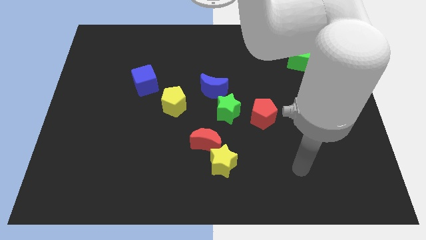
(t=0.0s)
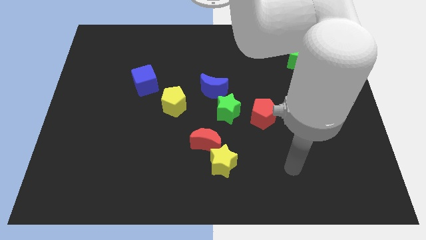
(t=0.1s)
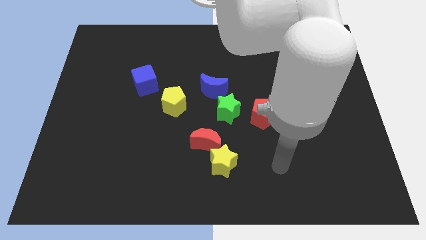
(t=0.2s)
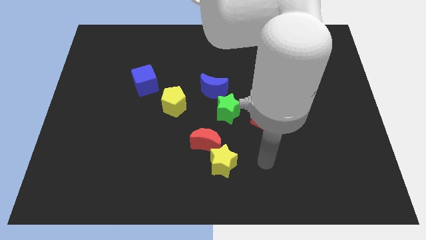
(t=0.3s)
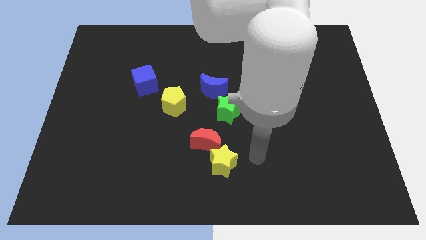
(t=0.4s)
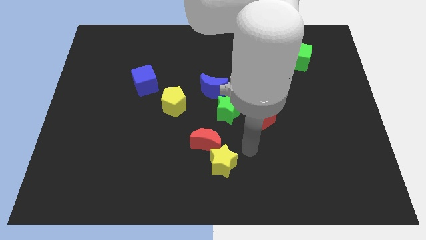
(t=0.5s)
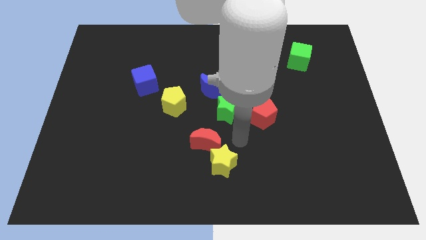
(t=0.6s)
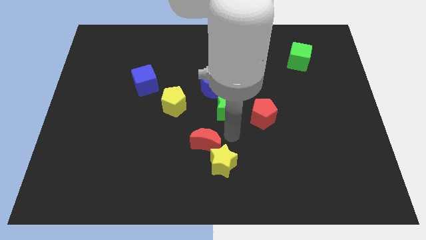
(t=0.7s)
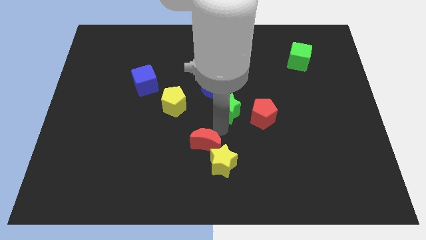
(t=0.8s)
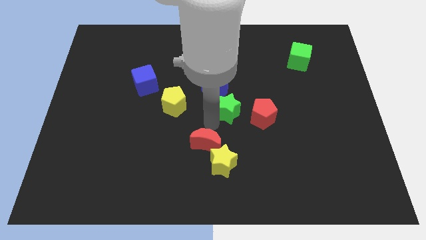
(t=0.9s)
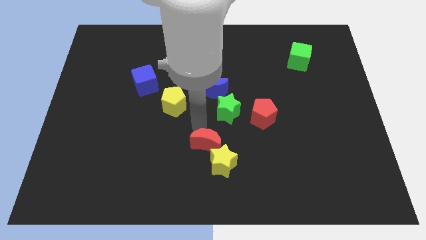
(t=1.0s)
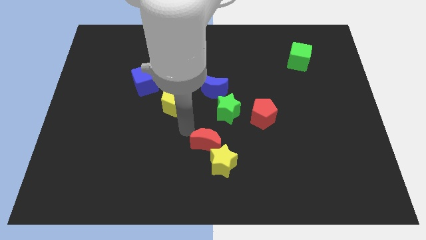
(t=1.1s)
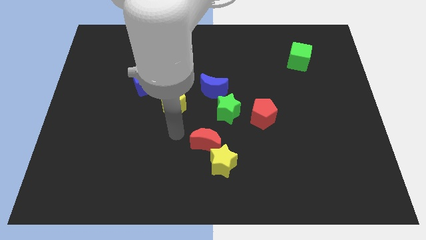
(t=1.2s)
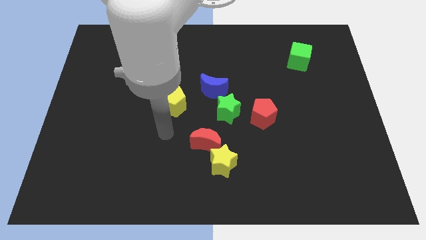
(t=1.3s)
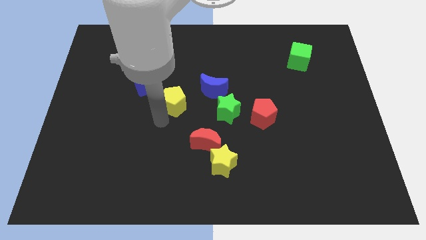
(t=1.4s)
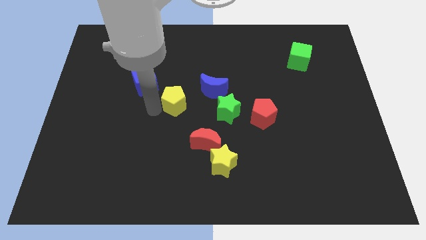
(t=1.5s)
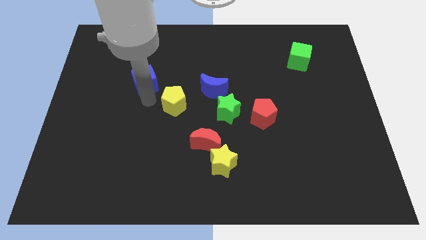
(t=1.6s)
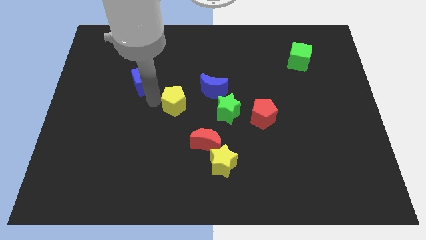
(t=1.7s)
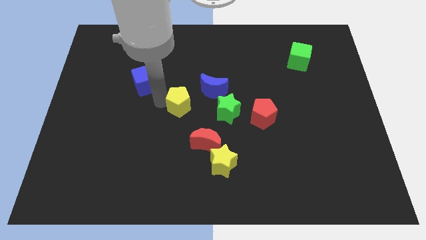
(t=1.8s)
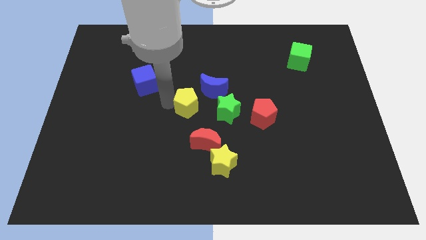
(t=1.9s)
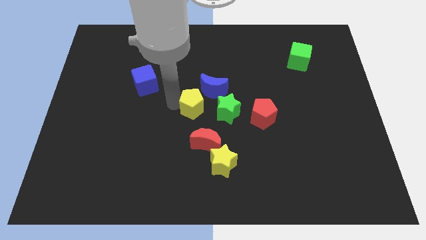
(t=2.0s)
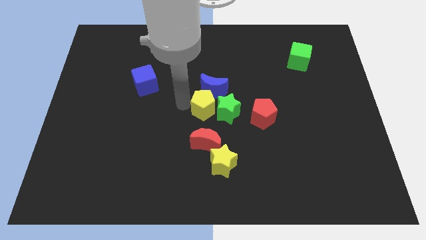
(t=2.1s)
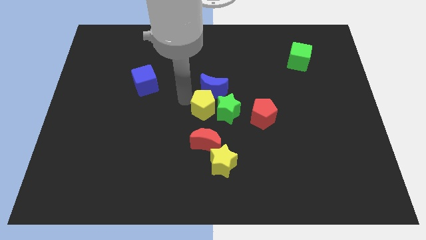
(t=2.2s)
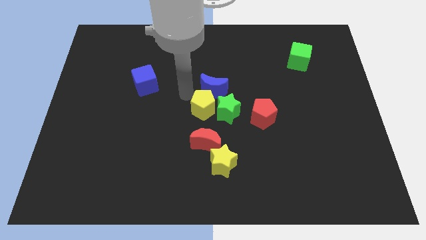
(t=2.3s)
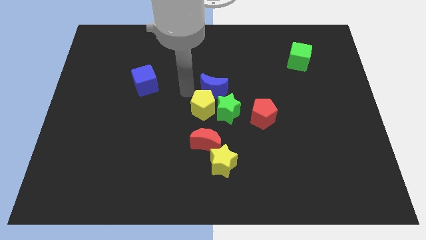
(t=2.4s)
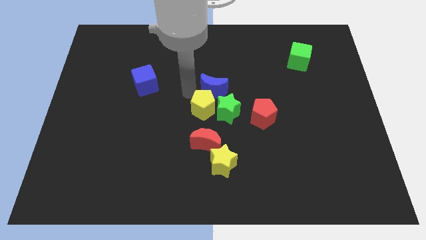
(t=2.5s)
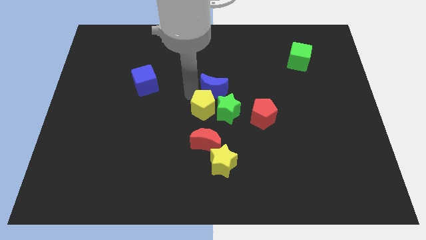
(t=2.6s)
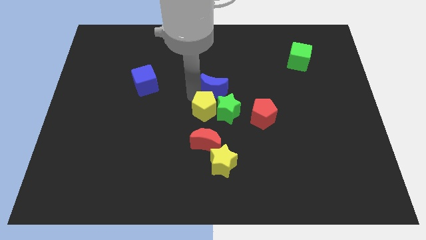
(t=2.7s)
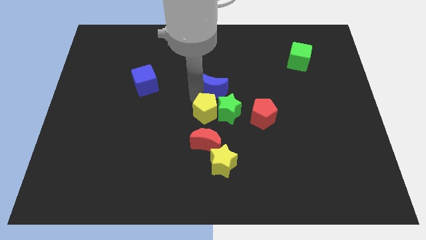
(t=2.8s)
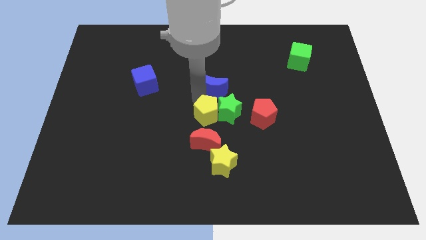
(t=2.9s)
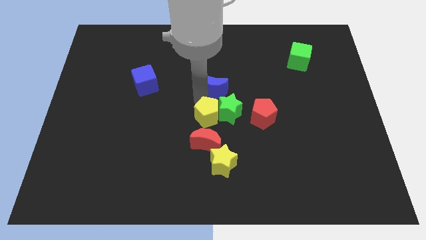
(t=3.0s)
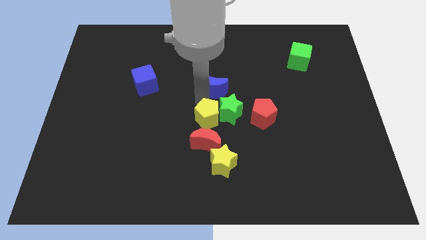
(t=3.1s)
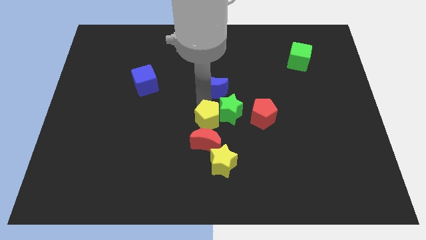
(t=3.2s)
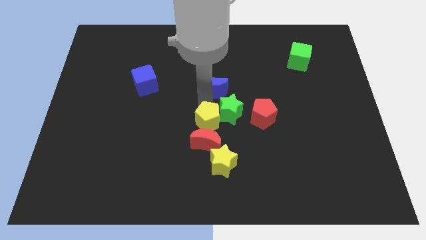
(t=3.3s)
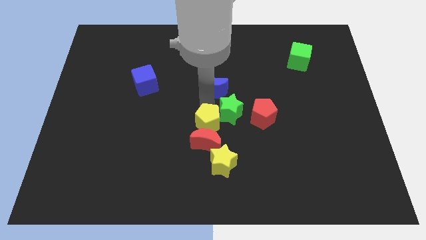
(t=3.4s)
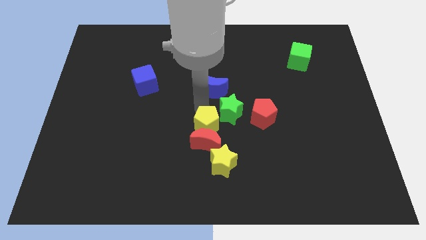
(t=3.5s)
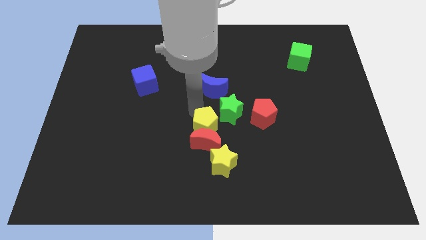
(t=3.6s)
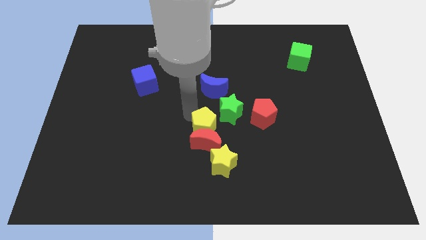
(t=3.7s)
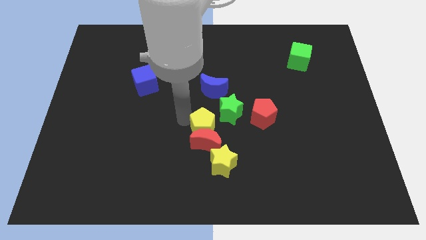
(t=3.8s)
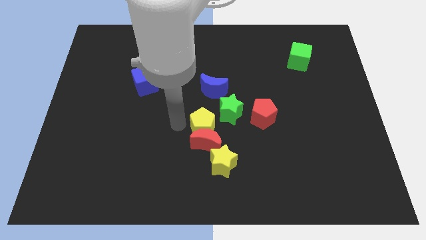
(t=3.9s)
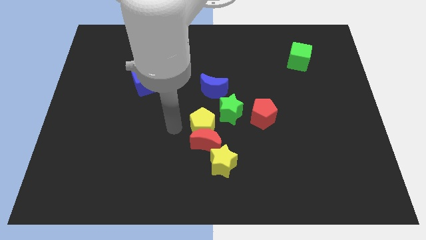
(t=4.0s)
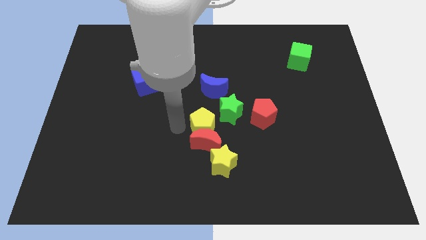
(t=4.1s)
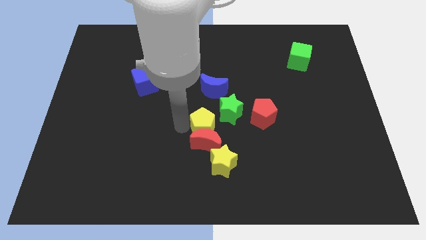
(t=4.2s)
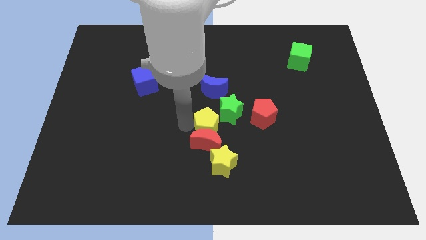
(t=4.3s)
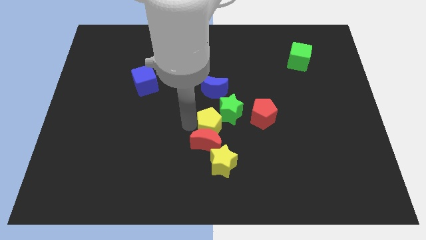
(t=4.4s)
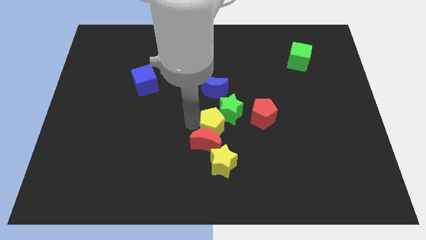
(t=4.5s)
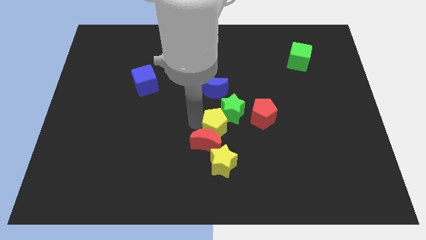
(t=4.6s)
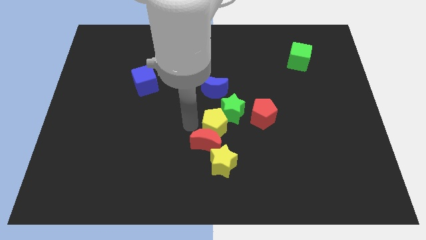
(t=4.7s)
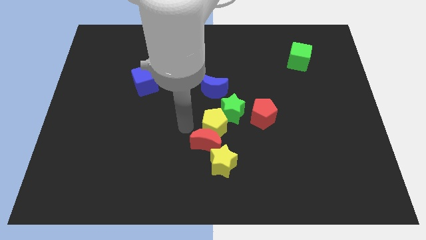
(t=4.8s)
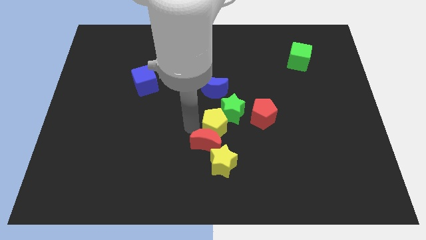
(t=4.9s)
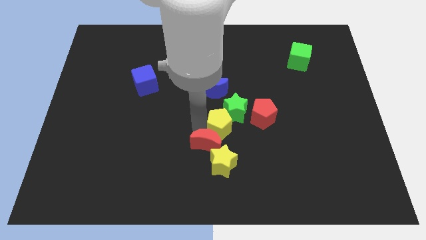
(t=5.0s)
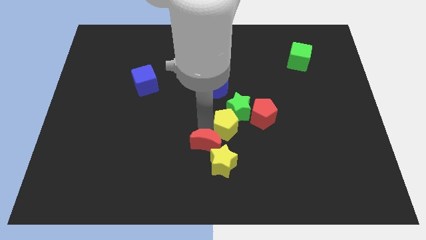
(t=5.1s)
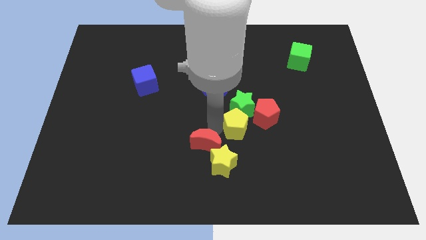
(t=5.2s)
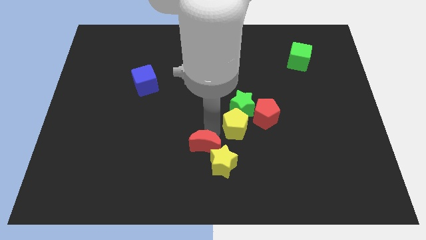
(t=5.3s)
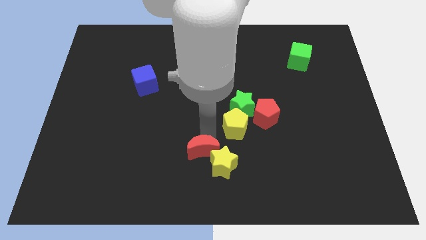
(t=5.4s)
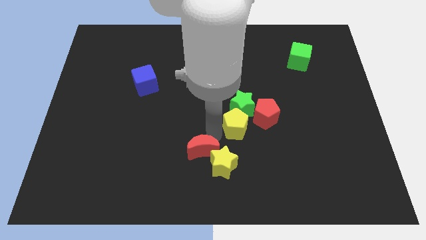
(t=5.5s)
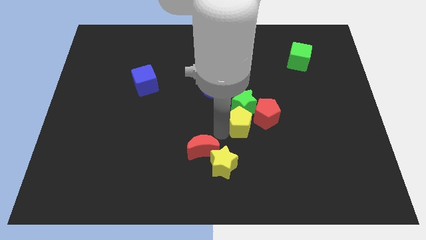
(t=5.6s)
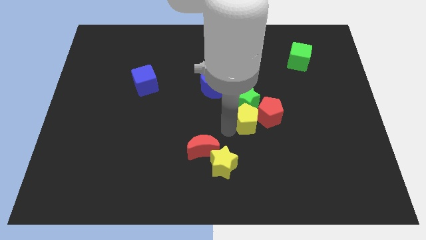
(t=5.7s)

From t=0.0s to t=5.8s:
move the yellow pentagon towards the red pentagon

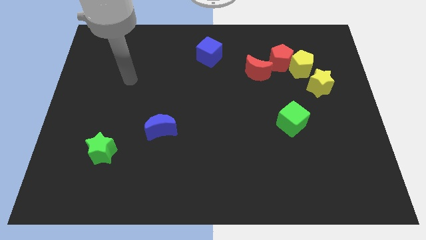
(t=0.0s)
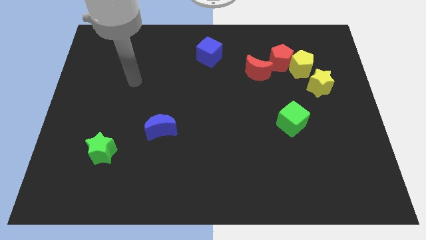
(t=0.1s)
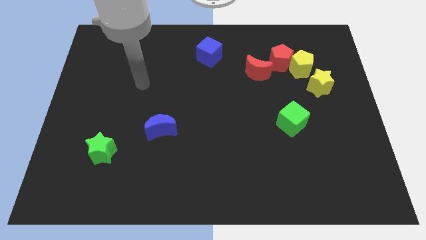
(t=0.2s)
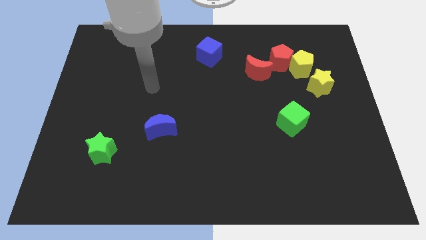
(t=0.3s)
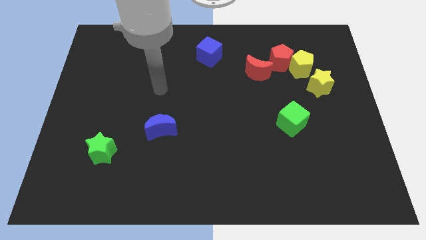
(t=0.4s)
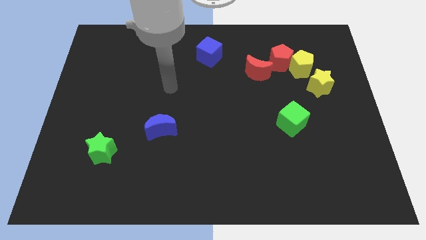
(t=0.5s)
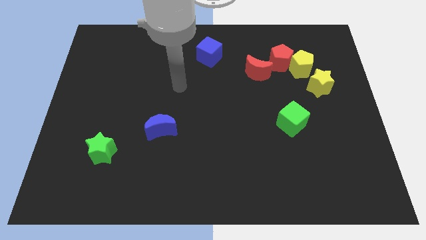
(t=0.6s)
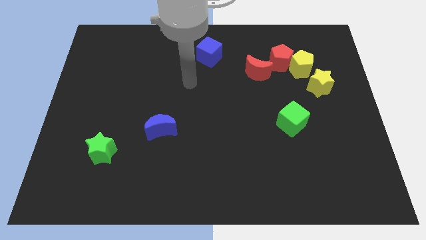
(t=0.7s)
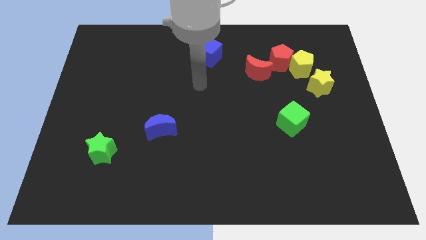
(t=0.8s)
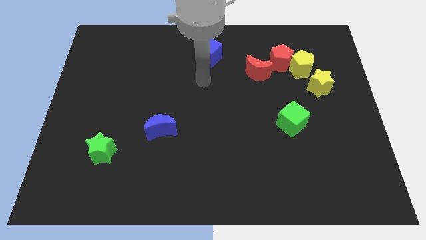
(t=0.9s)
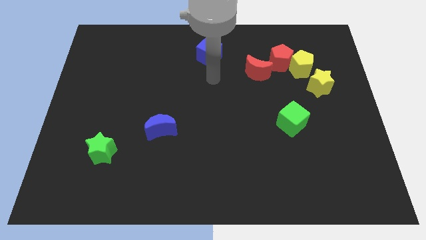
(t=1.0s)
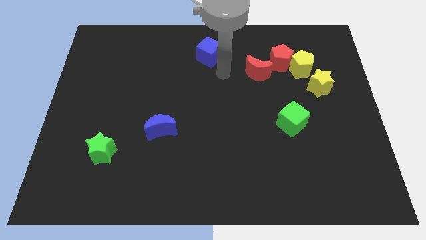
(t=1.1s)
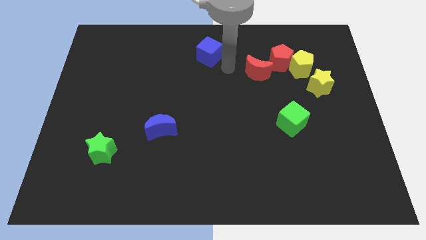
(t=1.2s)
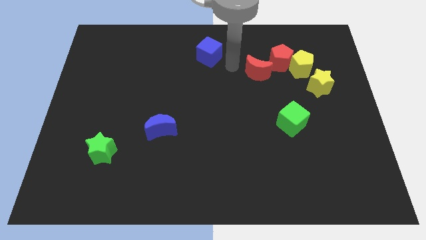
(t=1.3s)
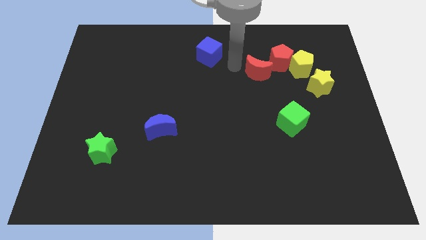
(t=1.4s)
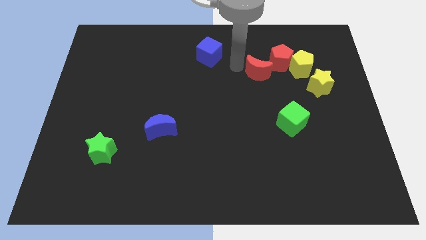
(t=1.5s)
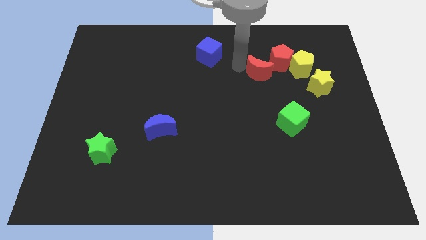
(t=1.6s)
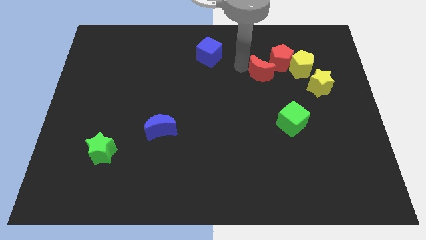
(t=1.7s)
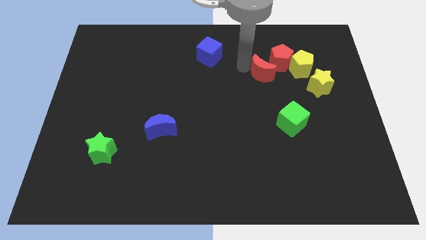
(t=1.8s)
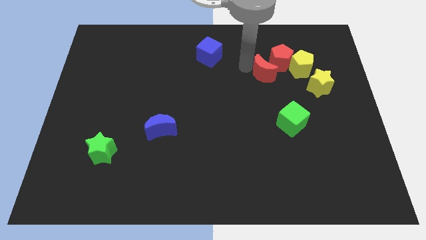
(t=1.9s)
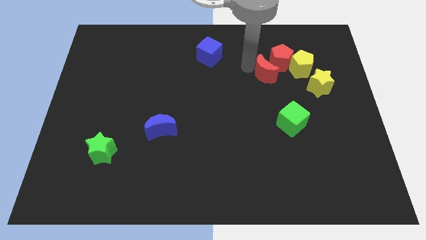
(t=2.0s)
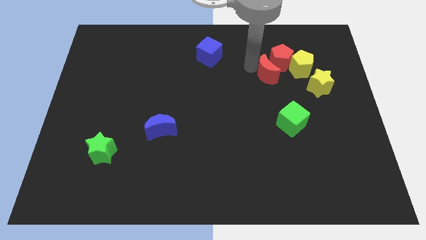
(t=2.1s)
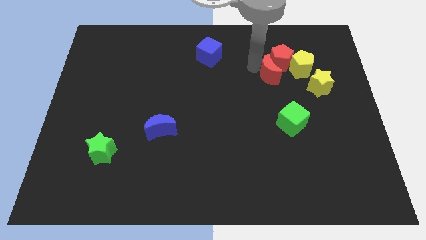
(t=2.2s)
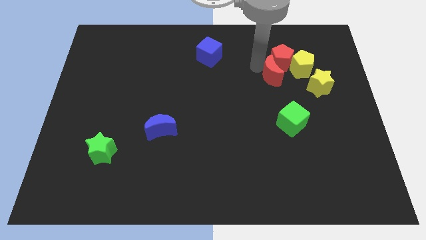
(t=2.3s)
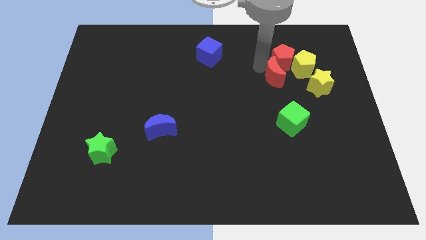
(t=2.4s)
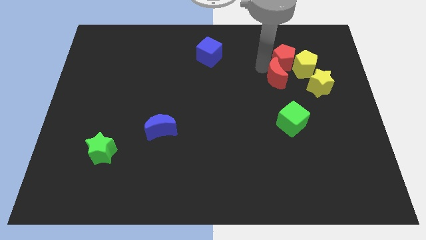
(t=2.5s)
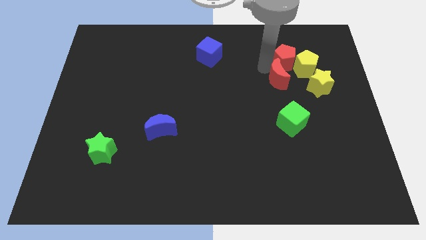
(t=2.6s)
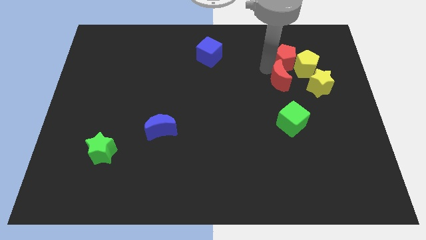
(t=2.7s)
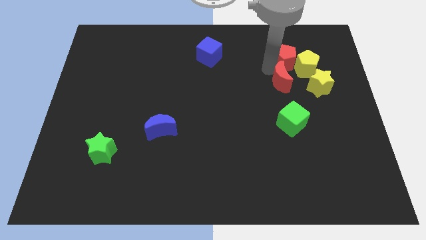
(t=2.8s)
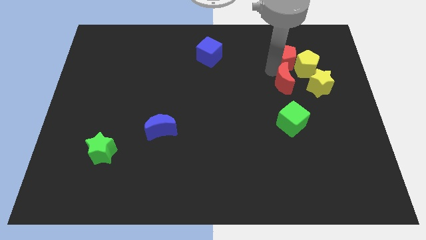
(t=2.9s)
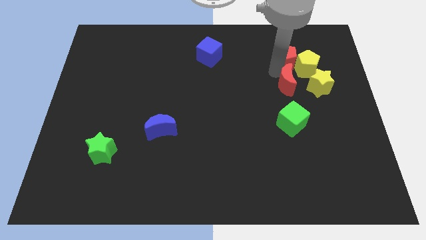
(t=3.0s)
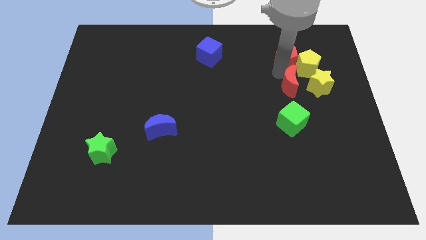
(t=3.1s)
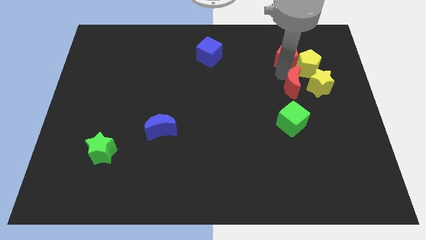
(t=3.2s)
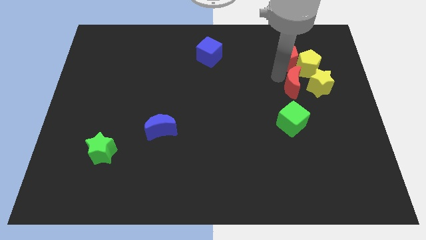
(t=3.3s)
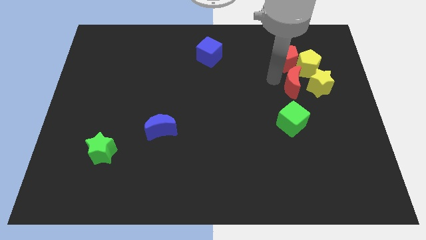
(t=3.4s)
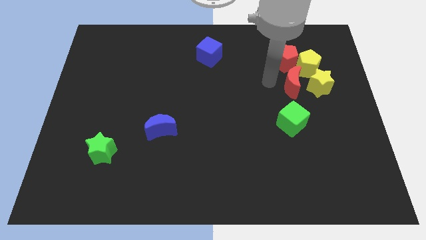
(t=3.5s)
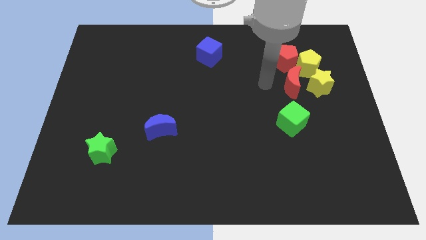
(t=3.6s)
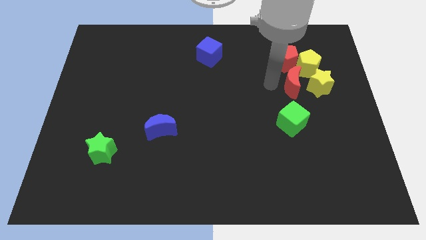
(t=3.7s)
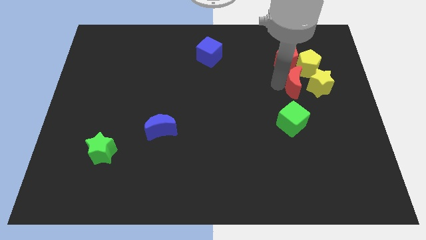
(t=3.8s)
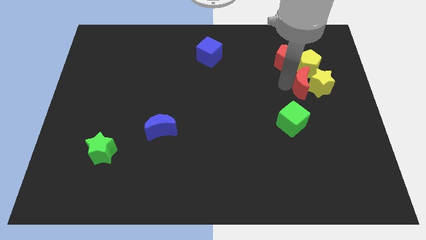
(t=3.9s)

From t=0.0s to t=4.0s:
move the red moon to the yellow star
